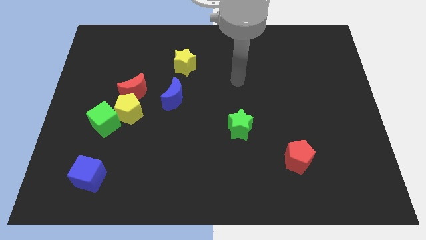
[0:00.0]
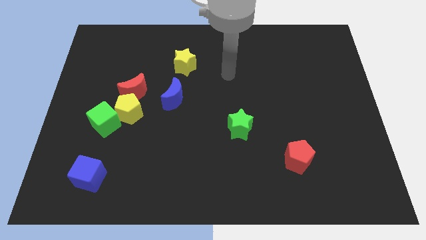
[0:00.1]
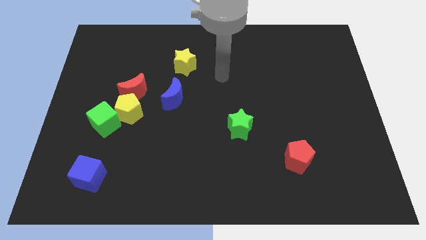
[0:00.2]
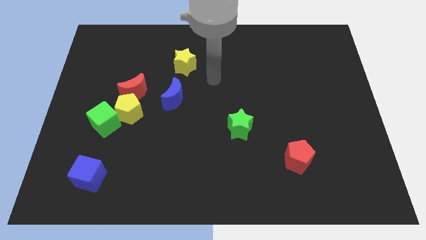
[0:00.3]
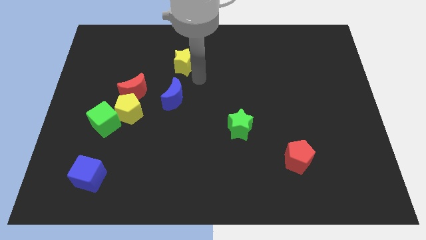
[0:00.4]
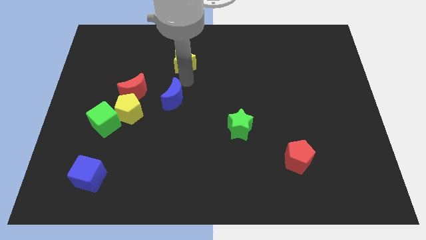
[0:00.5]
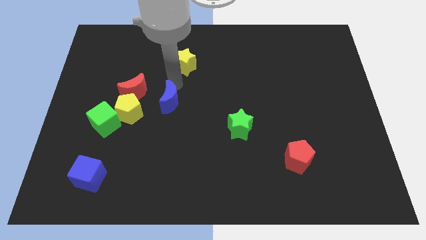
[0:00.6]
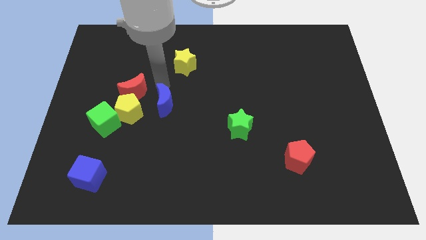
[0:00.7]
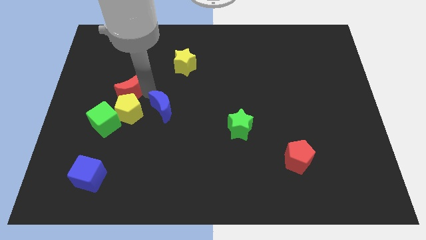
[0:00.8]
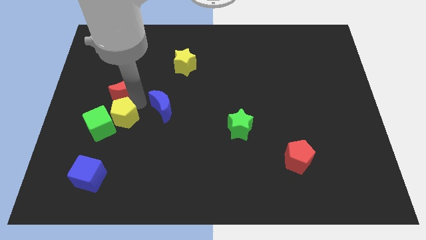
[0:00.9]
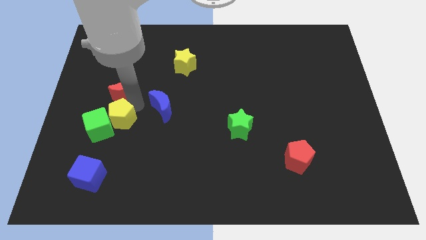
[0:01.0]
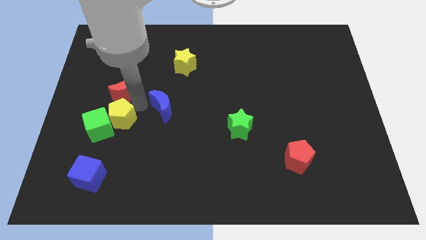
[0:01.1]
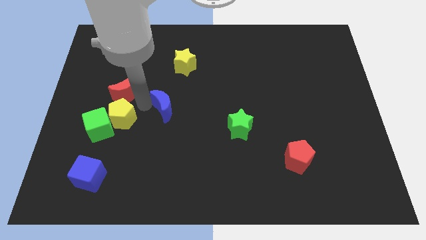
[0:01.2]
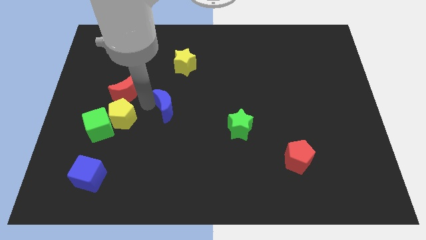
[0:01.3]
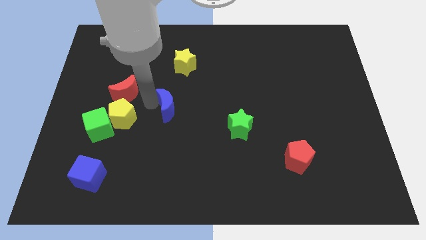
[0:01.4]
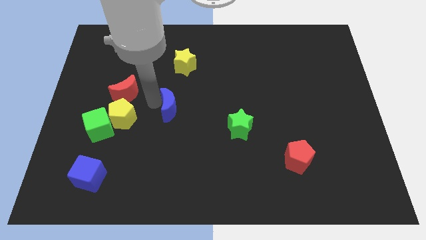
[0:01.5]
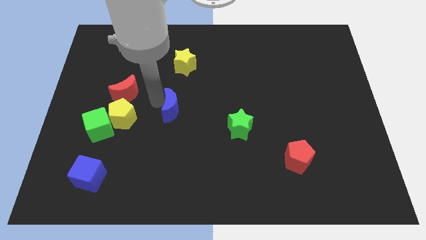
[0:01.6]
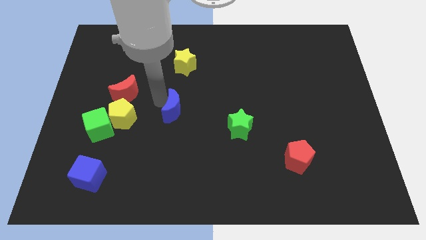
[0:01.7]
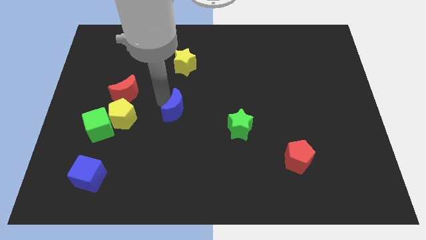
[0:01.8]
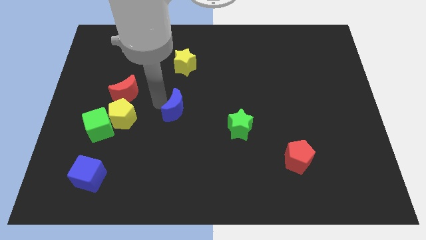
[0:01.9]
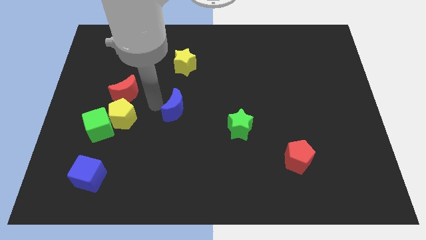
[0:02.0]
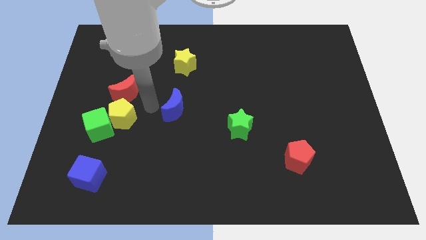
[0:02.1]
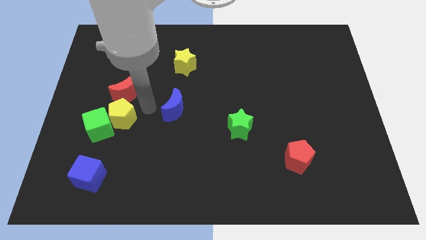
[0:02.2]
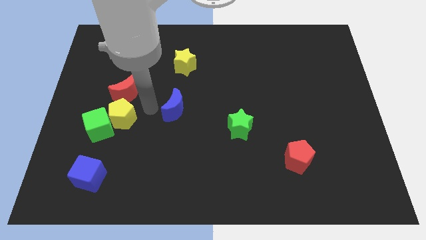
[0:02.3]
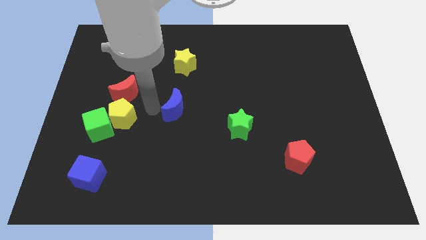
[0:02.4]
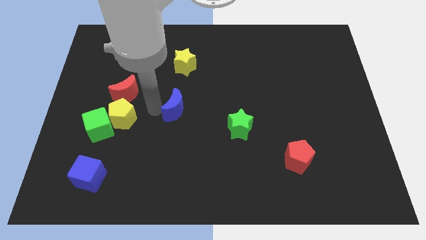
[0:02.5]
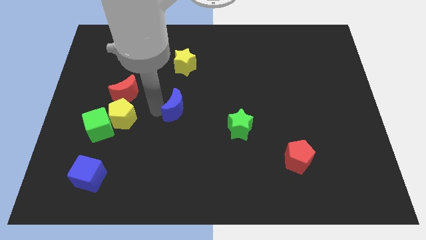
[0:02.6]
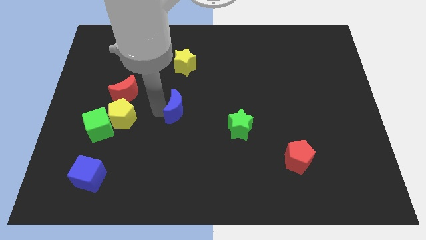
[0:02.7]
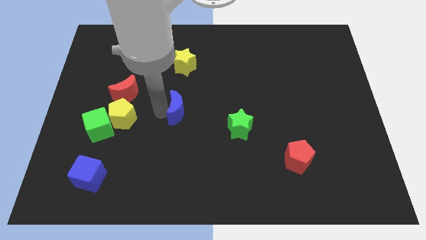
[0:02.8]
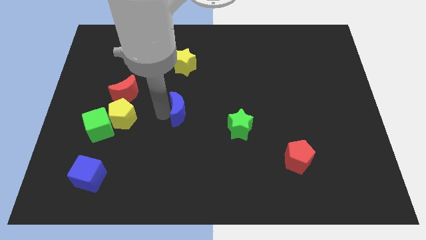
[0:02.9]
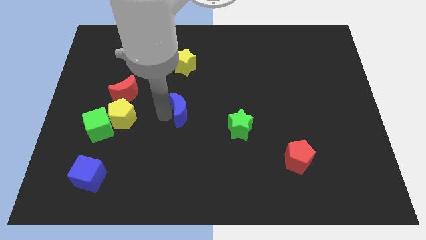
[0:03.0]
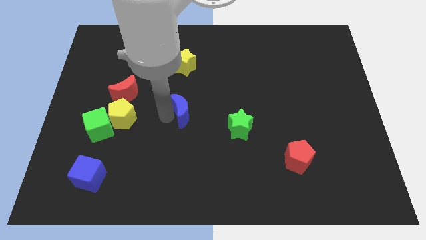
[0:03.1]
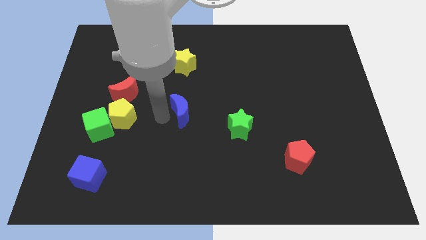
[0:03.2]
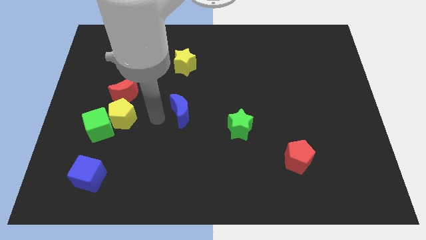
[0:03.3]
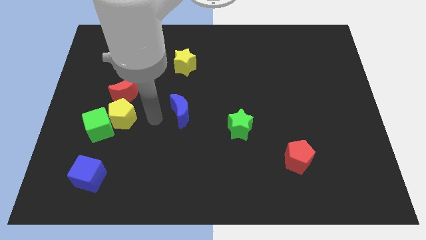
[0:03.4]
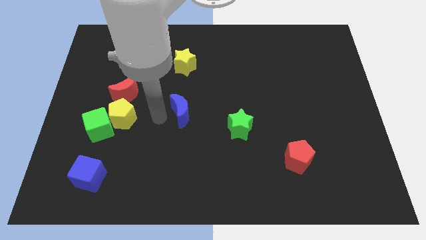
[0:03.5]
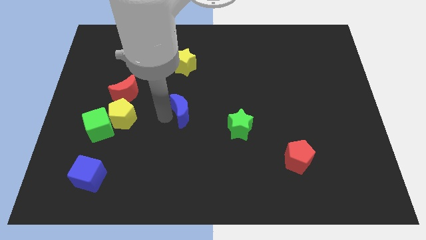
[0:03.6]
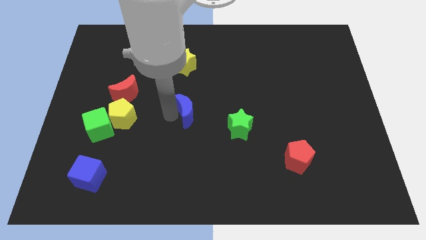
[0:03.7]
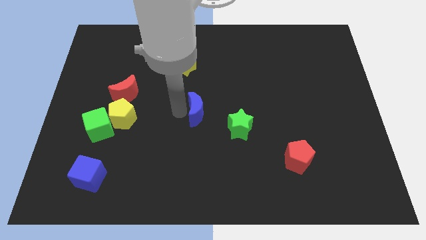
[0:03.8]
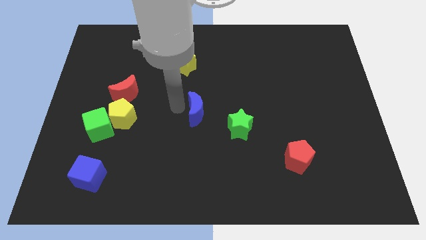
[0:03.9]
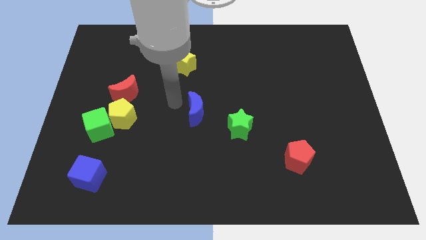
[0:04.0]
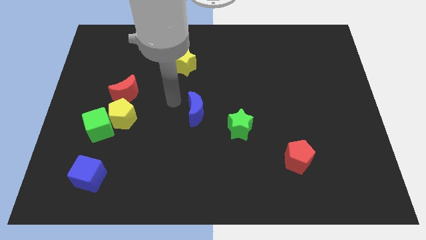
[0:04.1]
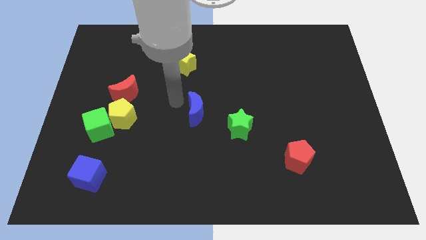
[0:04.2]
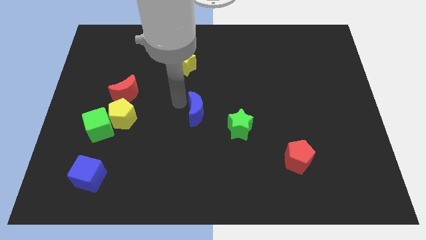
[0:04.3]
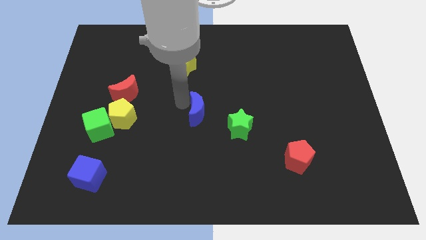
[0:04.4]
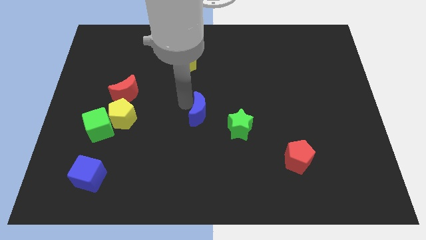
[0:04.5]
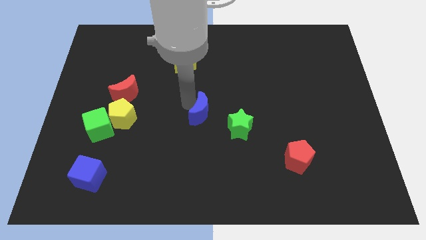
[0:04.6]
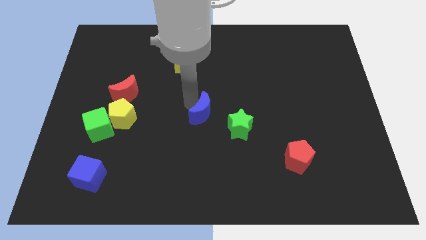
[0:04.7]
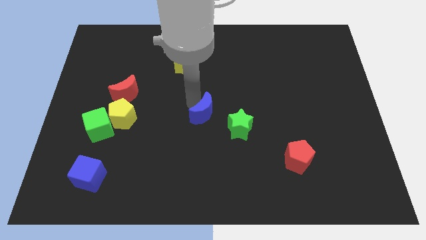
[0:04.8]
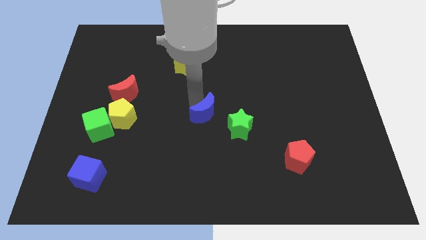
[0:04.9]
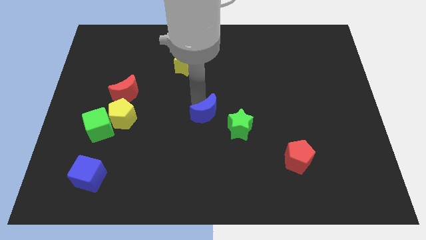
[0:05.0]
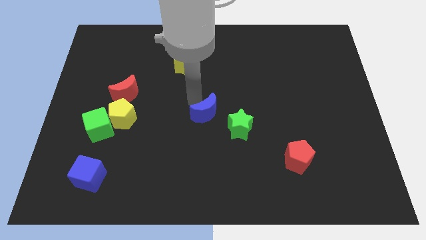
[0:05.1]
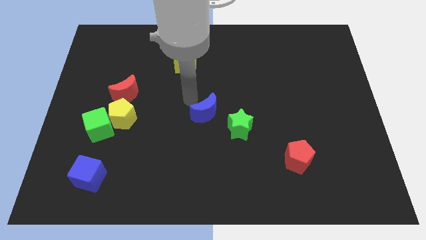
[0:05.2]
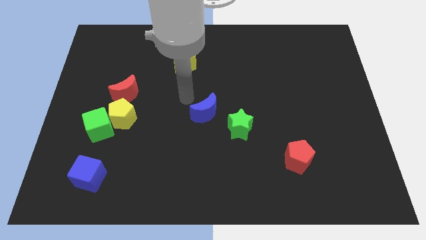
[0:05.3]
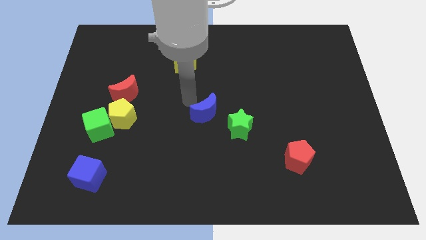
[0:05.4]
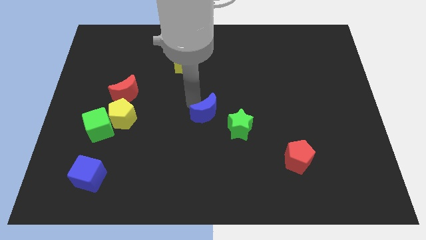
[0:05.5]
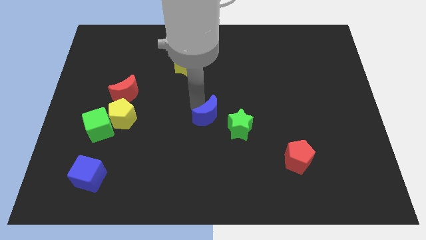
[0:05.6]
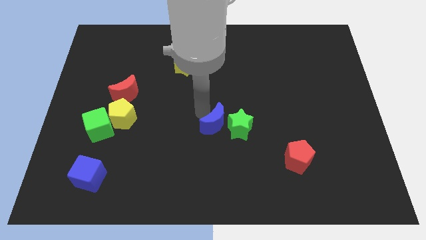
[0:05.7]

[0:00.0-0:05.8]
push the blue moon towards the green star

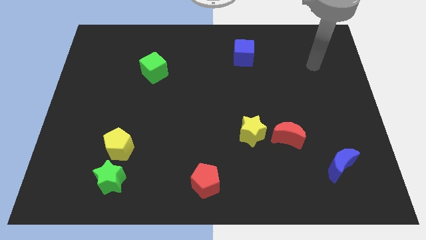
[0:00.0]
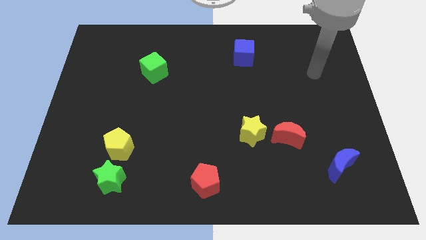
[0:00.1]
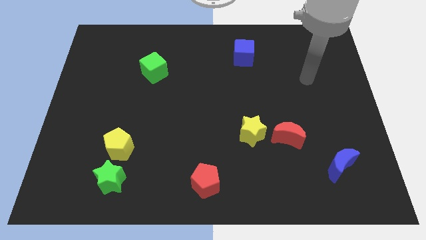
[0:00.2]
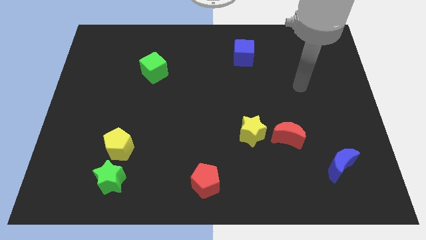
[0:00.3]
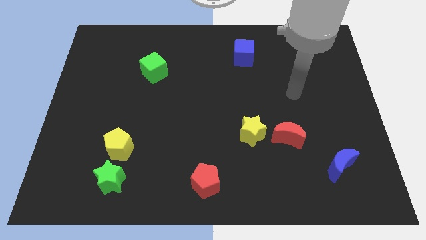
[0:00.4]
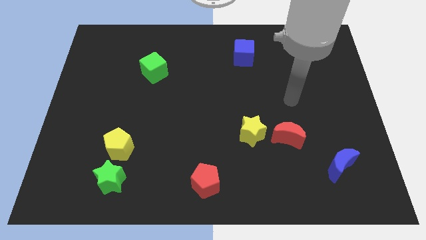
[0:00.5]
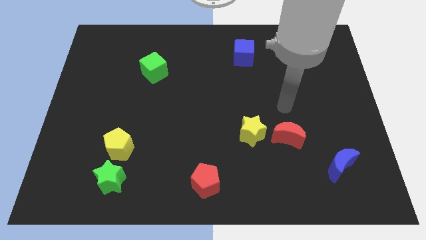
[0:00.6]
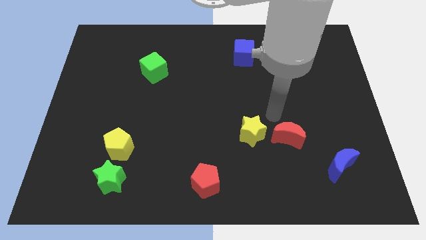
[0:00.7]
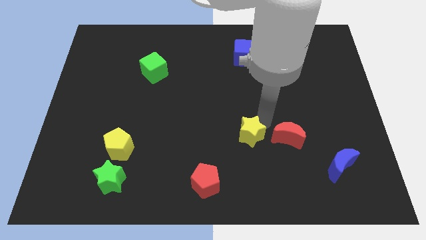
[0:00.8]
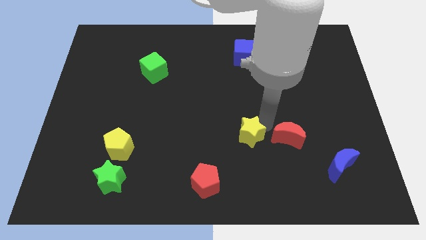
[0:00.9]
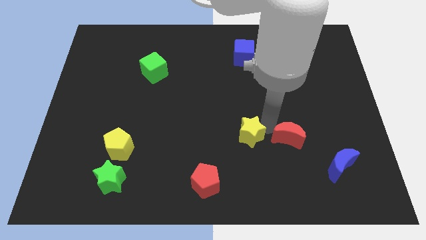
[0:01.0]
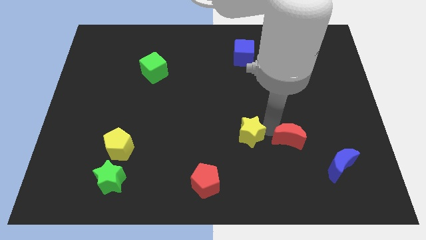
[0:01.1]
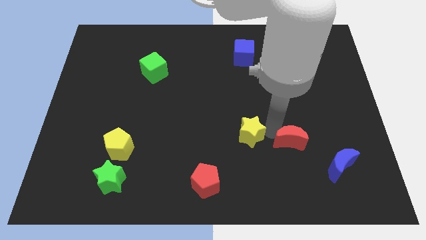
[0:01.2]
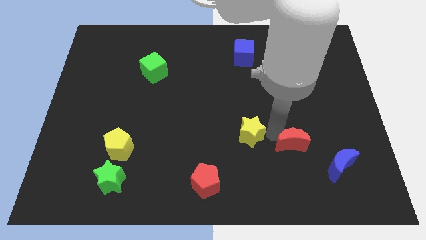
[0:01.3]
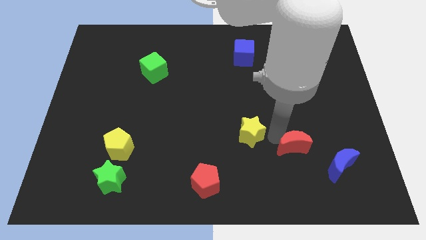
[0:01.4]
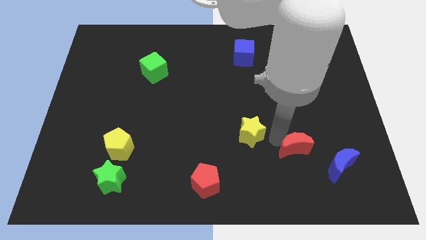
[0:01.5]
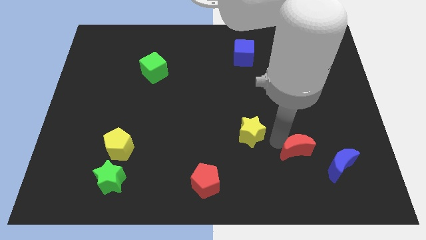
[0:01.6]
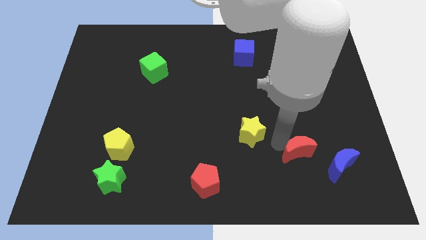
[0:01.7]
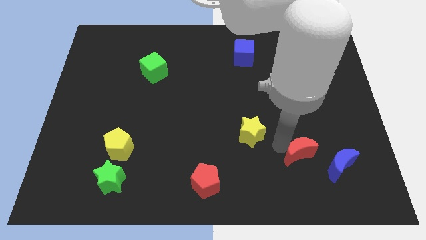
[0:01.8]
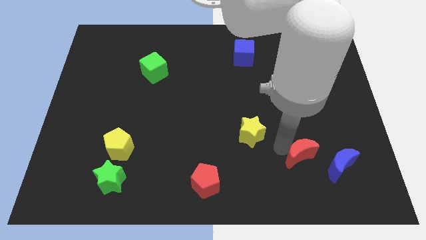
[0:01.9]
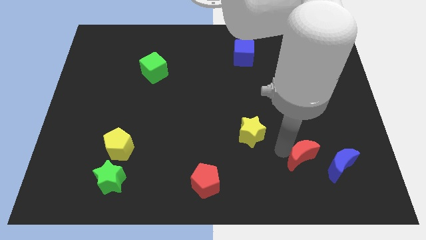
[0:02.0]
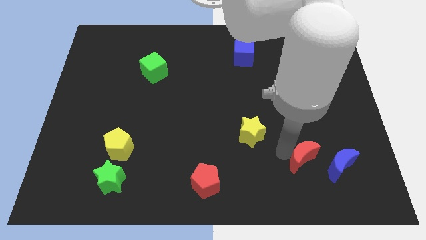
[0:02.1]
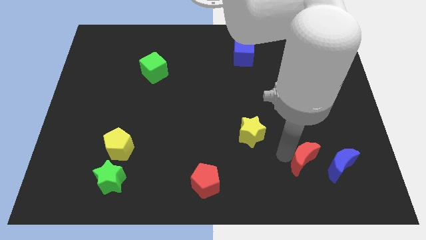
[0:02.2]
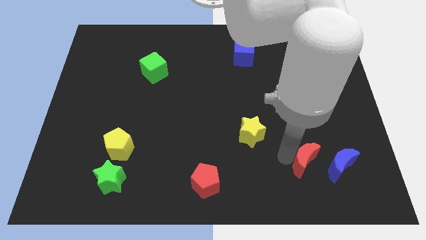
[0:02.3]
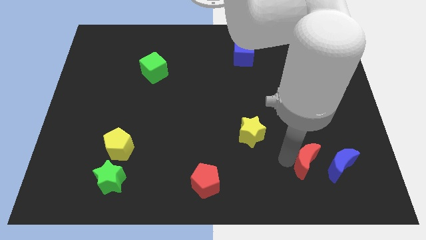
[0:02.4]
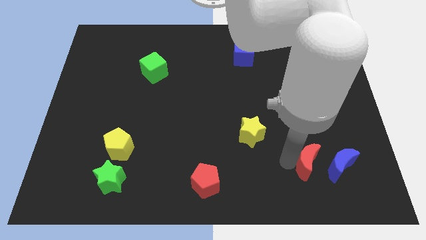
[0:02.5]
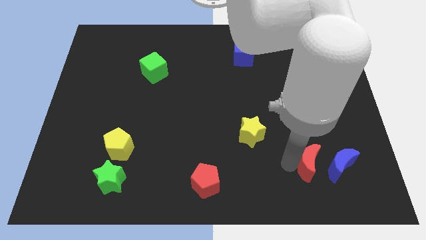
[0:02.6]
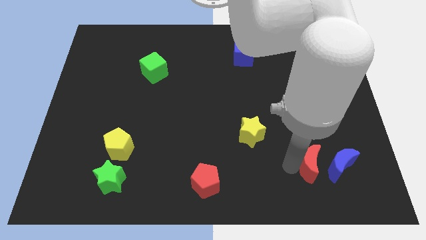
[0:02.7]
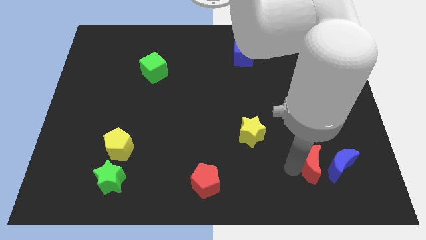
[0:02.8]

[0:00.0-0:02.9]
put the red moon close to the blue moon
